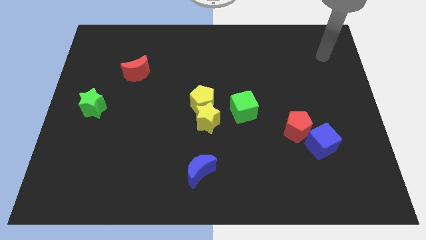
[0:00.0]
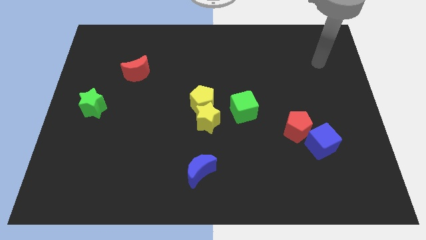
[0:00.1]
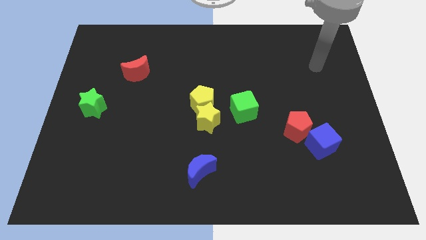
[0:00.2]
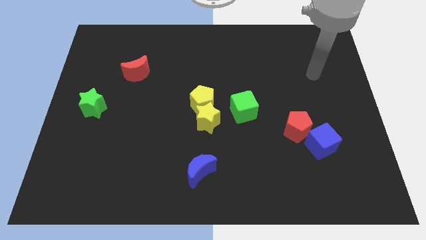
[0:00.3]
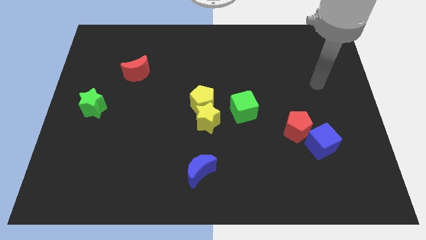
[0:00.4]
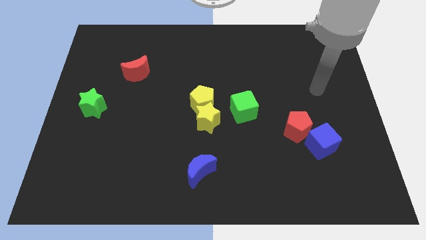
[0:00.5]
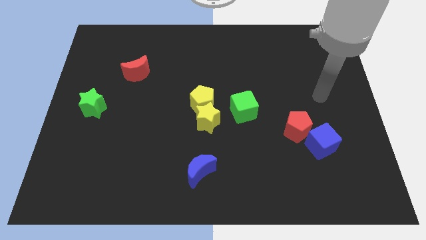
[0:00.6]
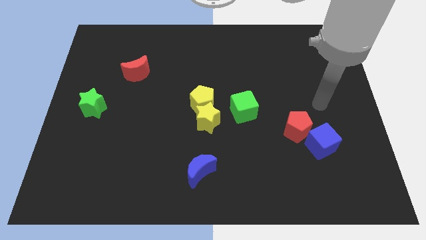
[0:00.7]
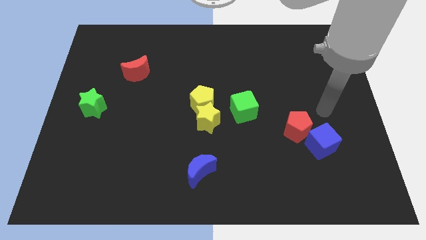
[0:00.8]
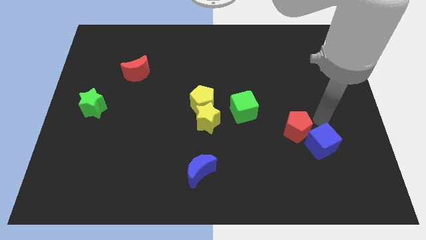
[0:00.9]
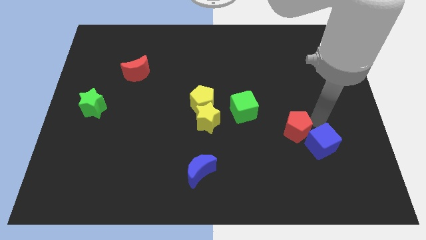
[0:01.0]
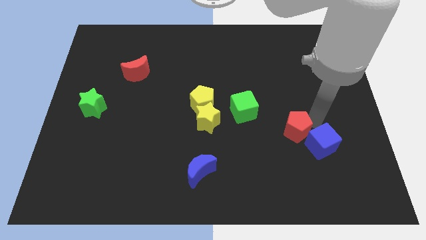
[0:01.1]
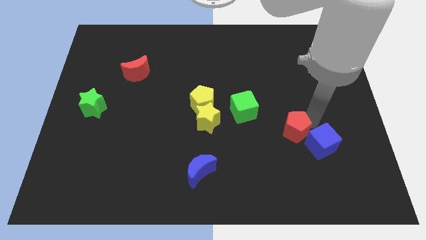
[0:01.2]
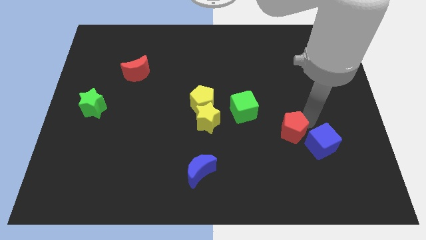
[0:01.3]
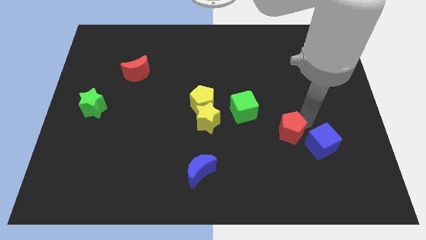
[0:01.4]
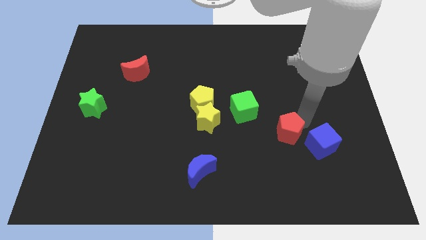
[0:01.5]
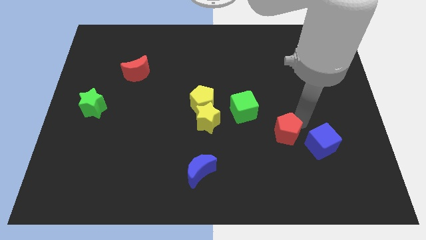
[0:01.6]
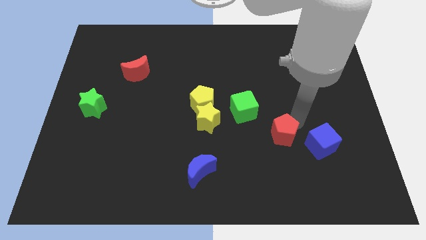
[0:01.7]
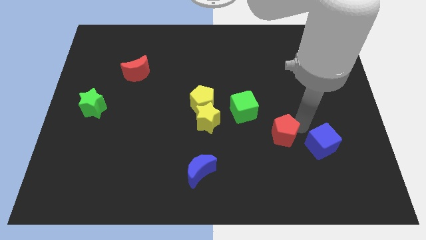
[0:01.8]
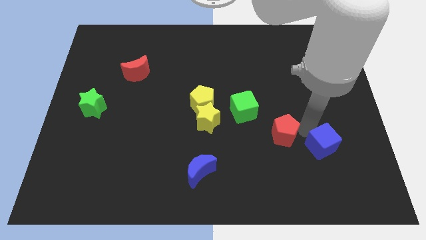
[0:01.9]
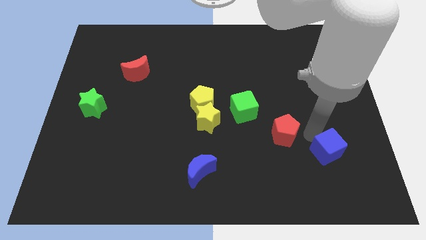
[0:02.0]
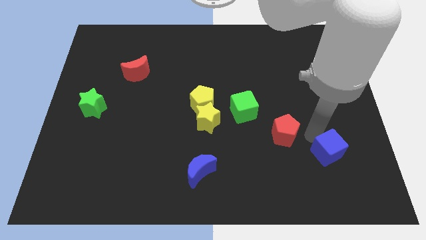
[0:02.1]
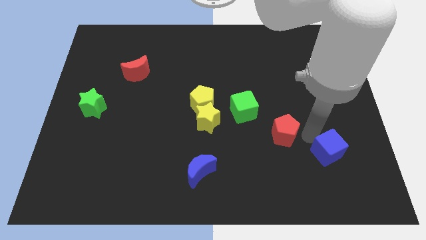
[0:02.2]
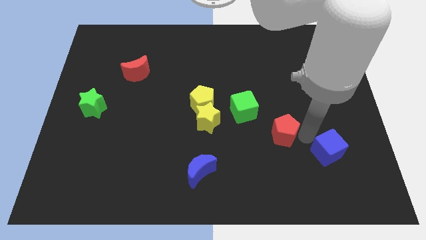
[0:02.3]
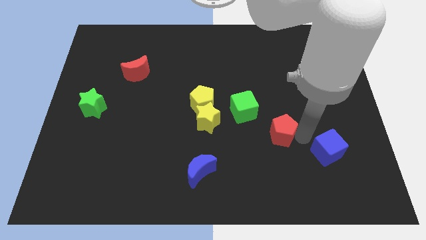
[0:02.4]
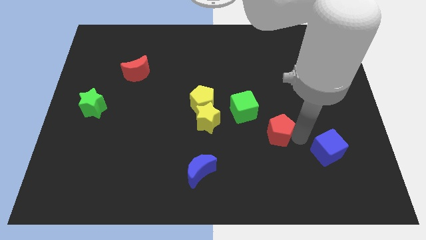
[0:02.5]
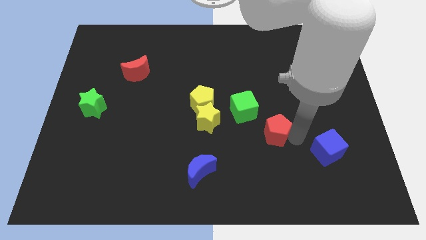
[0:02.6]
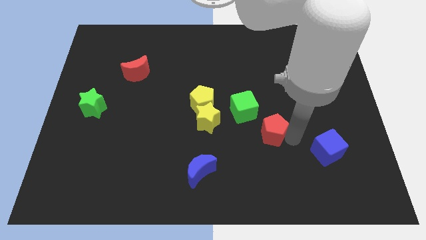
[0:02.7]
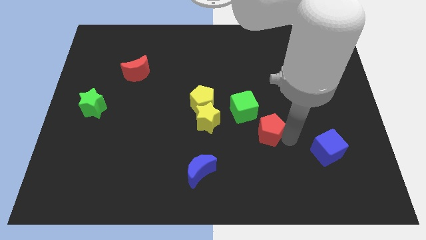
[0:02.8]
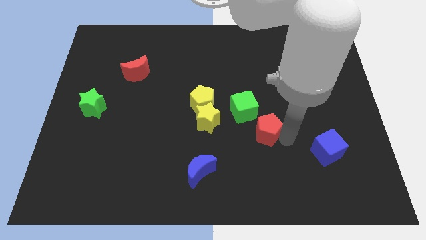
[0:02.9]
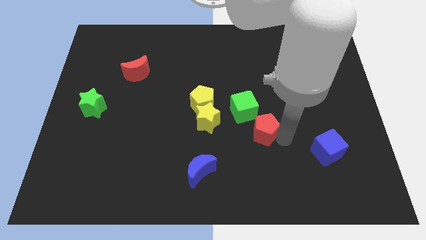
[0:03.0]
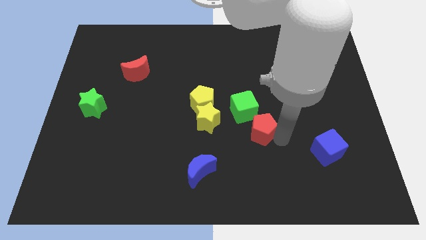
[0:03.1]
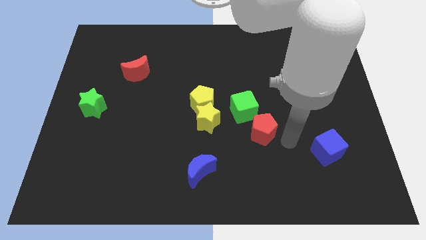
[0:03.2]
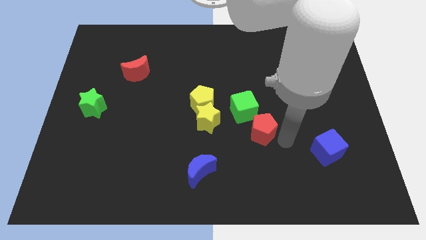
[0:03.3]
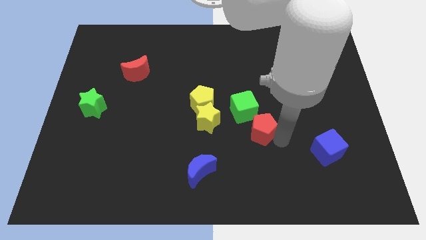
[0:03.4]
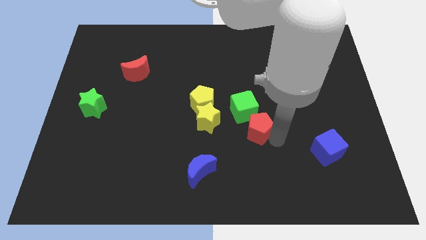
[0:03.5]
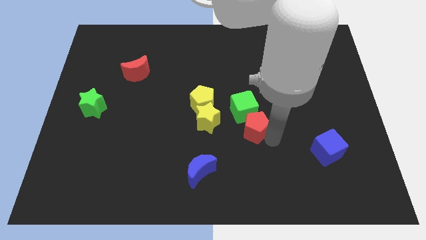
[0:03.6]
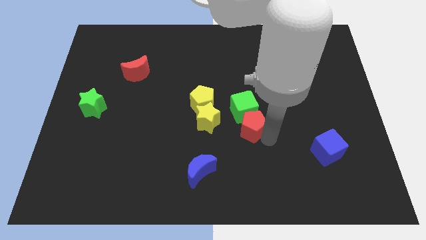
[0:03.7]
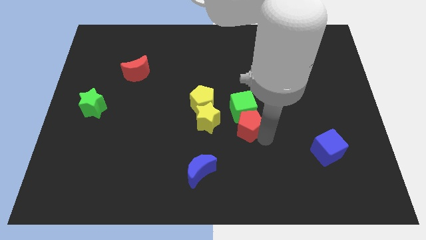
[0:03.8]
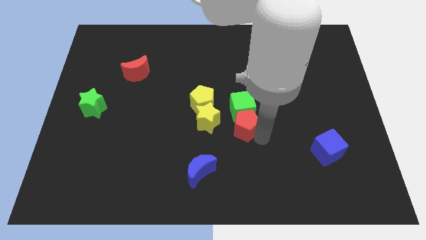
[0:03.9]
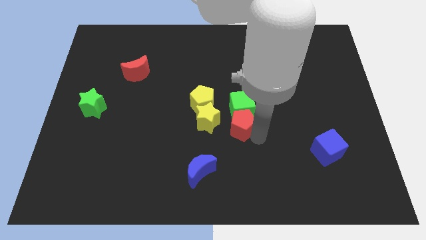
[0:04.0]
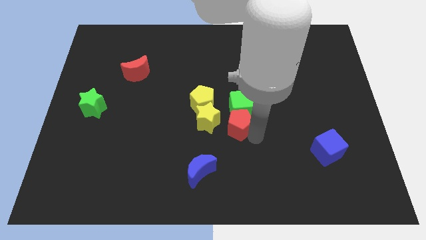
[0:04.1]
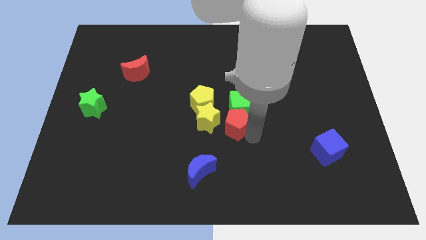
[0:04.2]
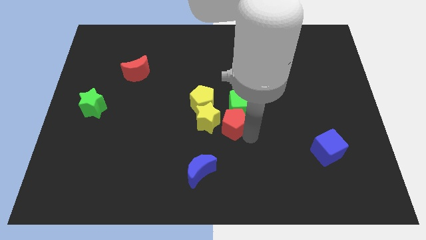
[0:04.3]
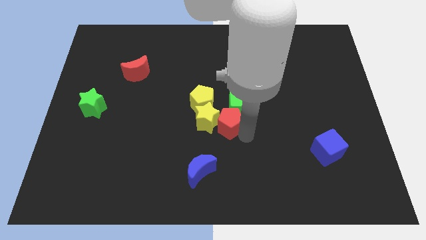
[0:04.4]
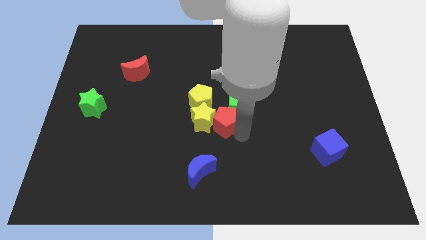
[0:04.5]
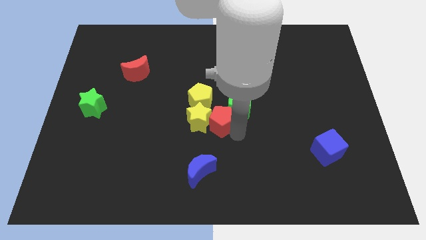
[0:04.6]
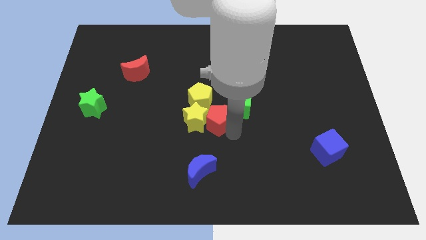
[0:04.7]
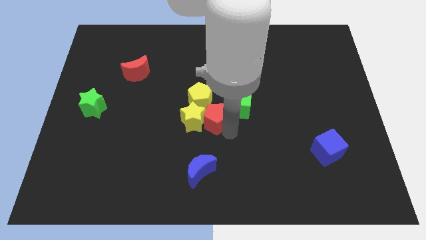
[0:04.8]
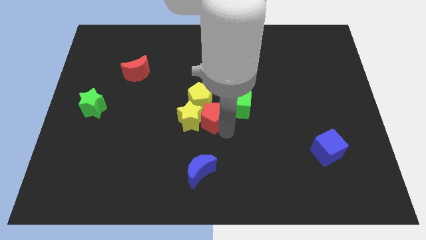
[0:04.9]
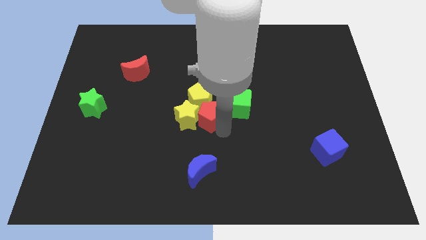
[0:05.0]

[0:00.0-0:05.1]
put the red pentagon next to the yellow pentagon

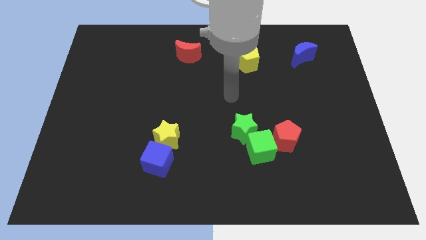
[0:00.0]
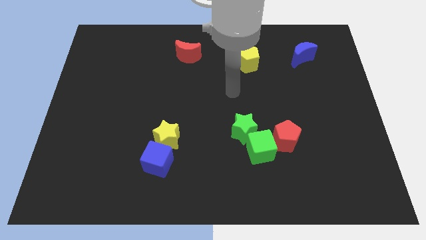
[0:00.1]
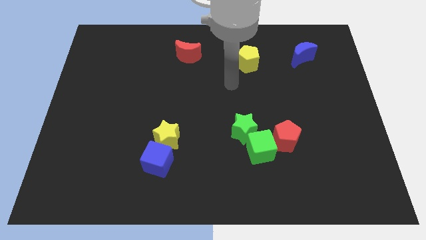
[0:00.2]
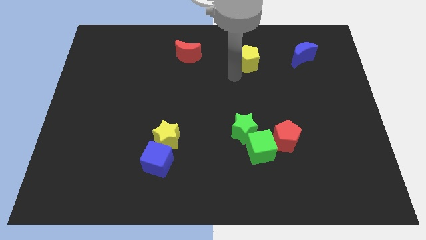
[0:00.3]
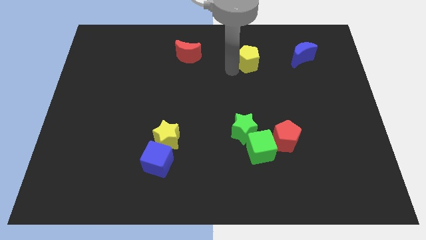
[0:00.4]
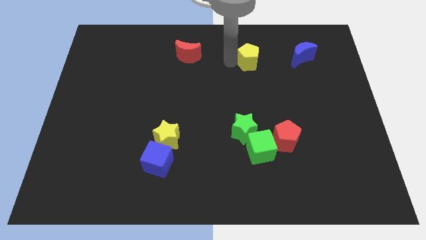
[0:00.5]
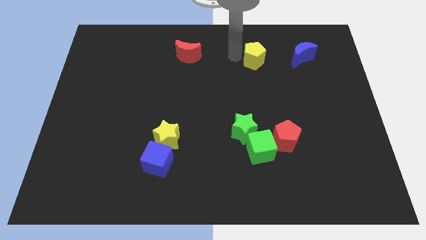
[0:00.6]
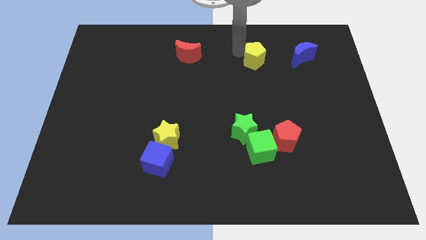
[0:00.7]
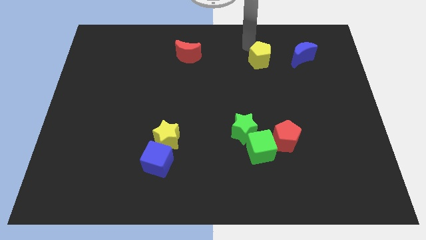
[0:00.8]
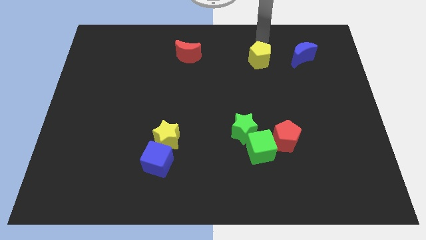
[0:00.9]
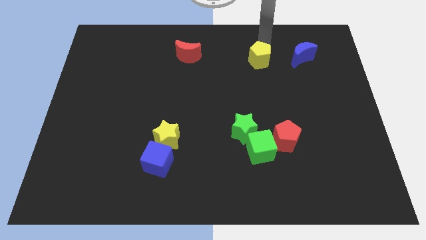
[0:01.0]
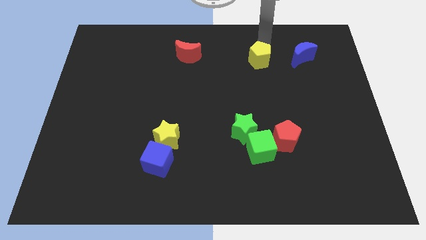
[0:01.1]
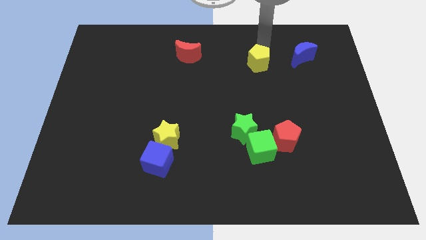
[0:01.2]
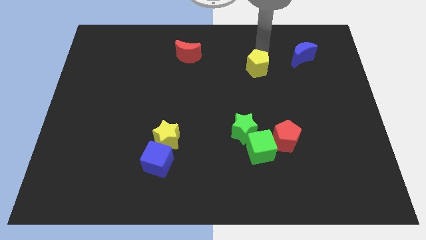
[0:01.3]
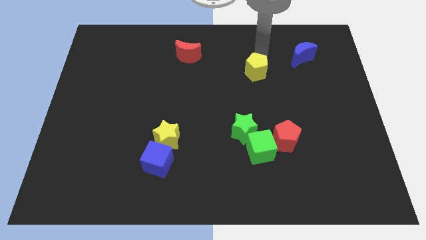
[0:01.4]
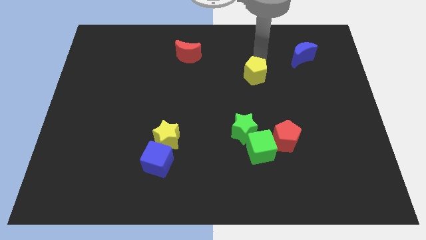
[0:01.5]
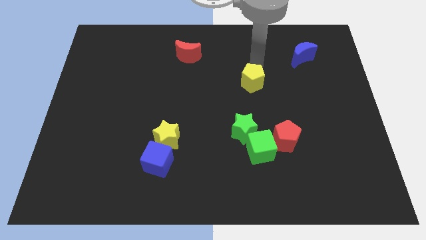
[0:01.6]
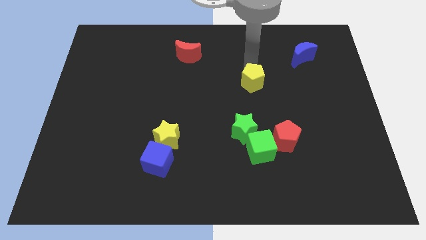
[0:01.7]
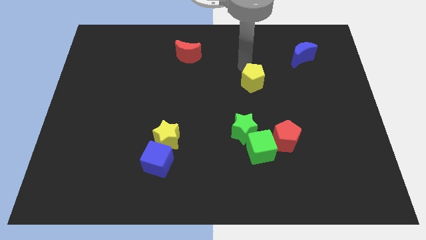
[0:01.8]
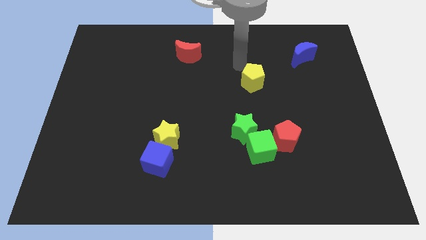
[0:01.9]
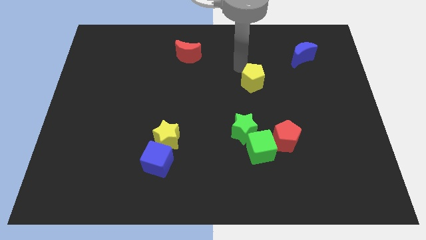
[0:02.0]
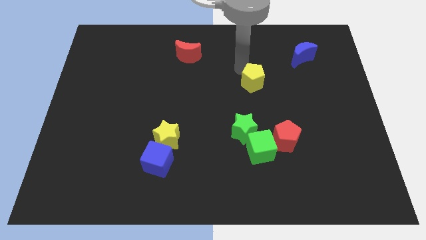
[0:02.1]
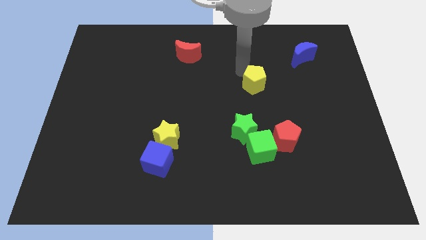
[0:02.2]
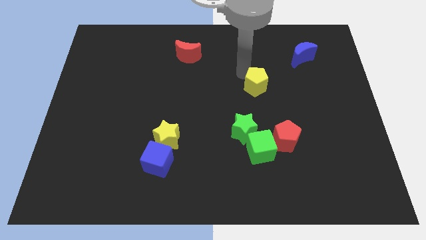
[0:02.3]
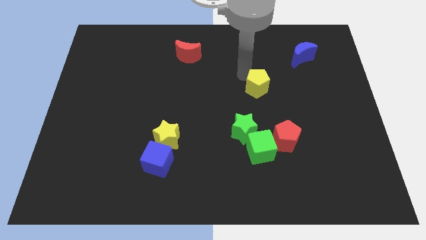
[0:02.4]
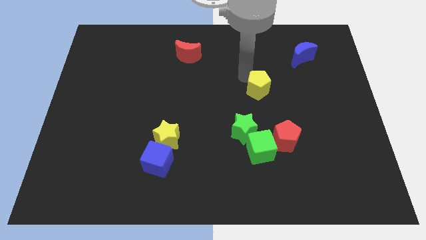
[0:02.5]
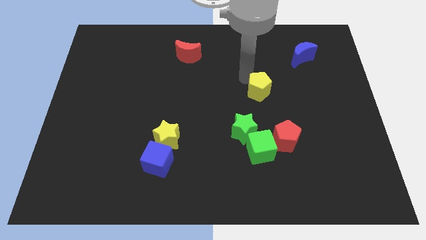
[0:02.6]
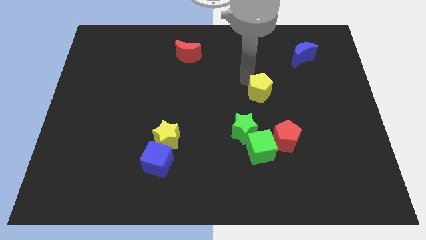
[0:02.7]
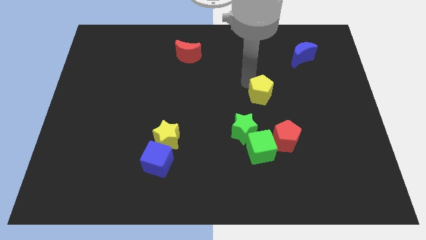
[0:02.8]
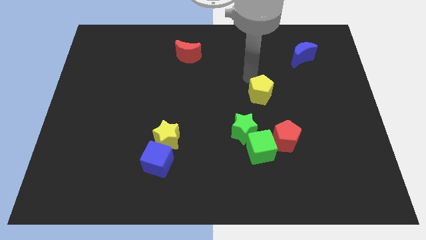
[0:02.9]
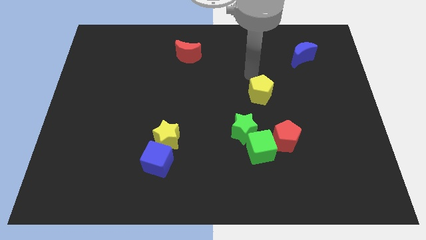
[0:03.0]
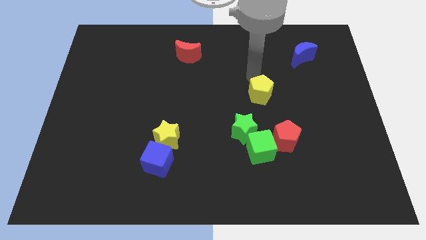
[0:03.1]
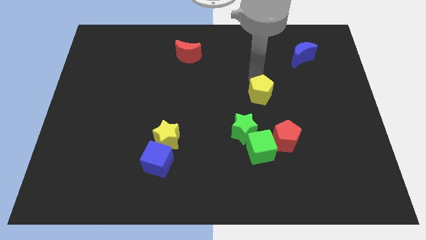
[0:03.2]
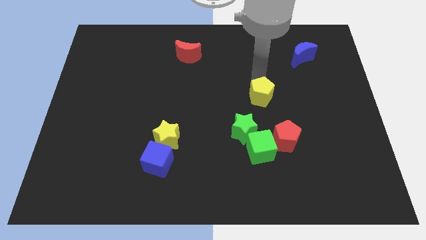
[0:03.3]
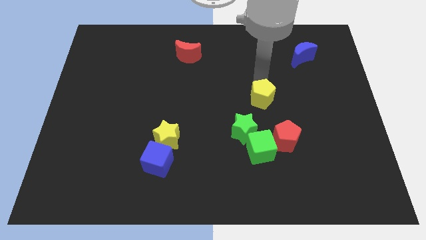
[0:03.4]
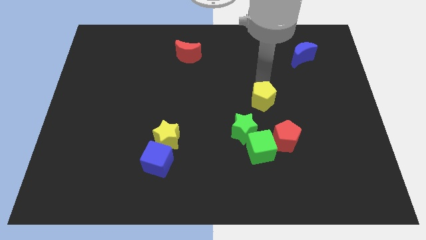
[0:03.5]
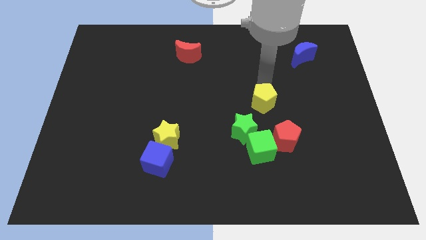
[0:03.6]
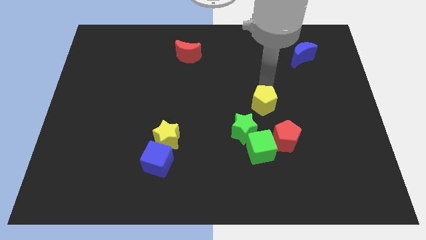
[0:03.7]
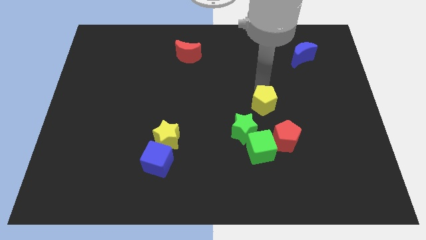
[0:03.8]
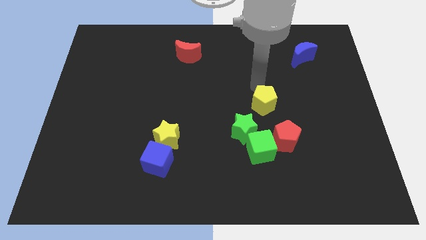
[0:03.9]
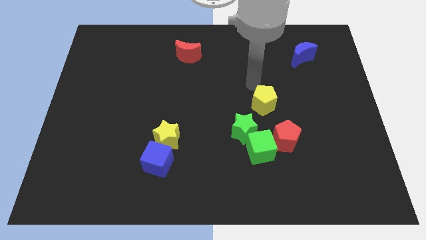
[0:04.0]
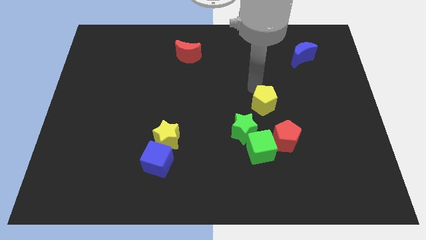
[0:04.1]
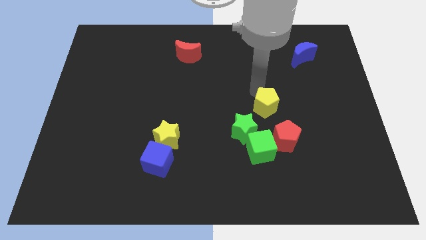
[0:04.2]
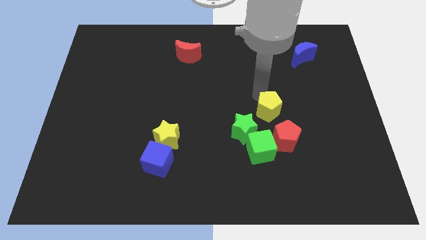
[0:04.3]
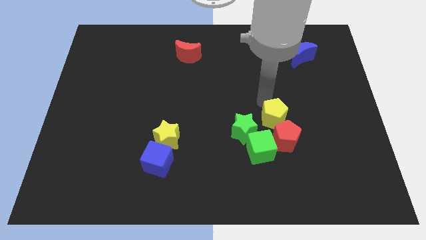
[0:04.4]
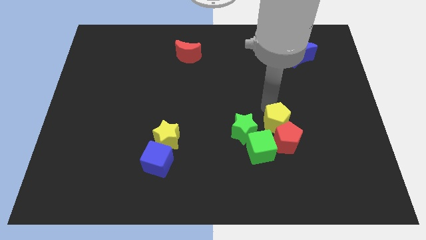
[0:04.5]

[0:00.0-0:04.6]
put the yellow pentagon towards the red pentagon
